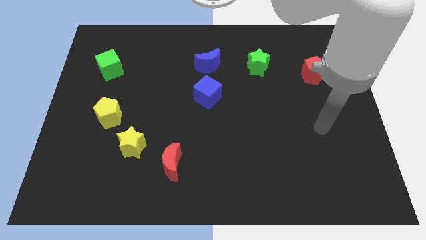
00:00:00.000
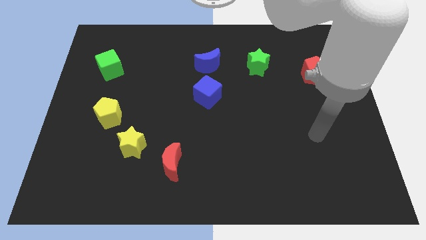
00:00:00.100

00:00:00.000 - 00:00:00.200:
separate the red moon from the yellow star

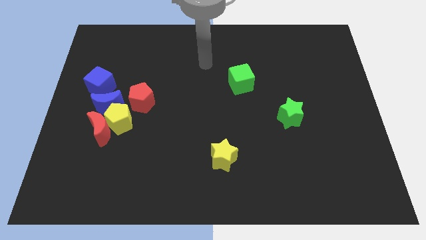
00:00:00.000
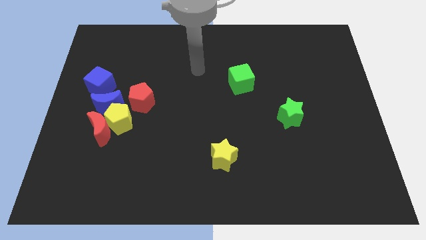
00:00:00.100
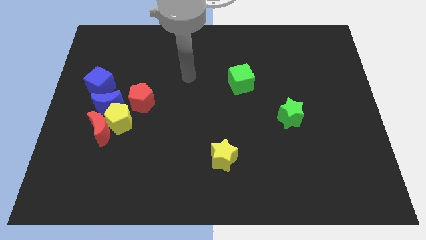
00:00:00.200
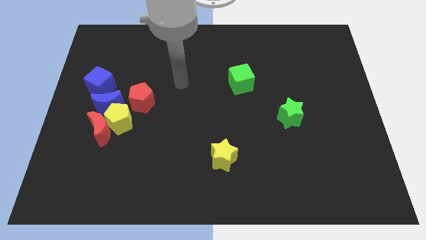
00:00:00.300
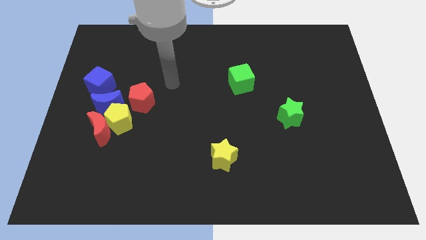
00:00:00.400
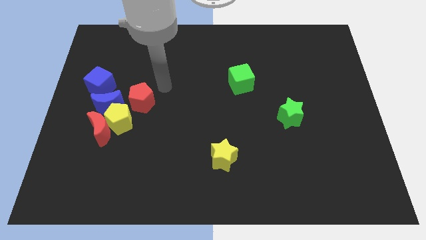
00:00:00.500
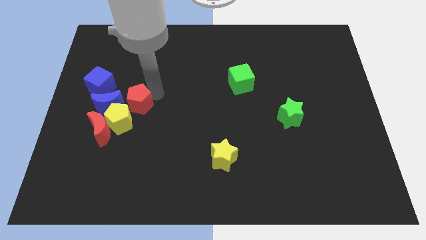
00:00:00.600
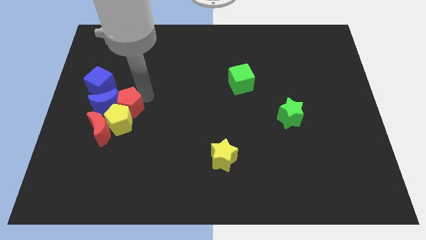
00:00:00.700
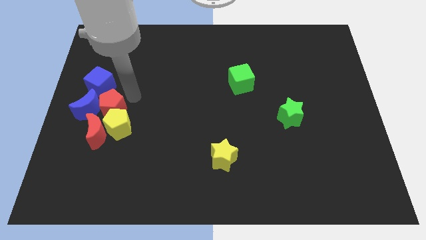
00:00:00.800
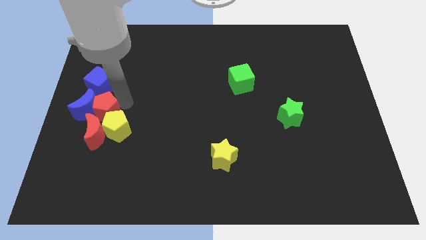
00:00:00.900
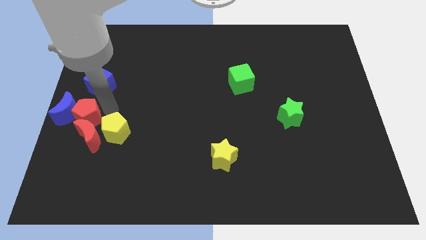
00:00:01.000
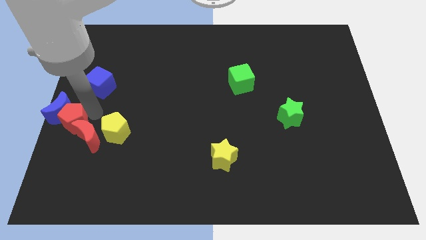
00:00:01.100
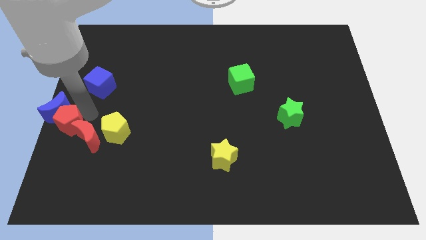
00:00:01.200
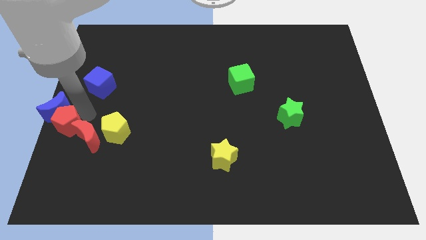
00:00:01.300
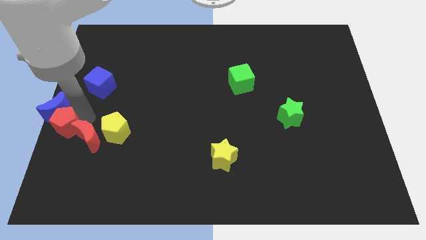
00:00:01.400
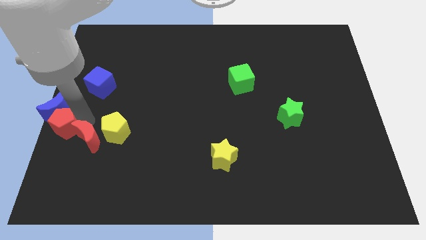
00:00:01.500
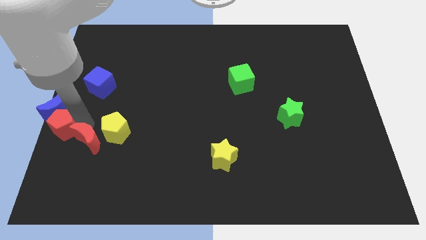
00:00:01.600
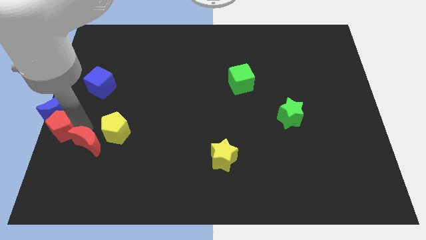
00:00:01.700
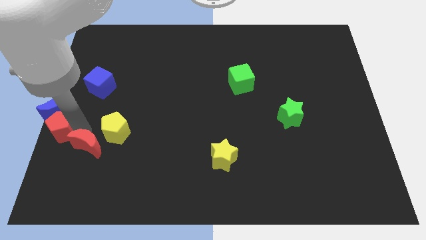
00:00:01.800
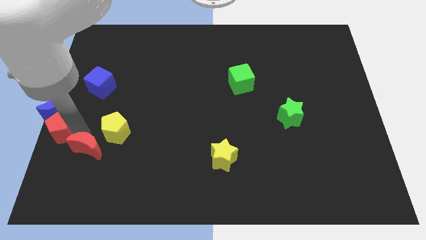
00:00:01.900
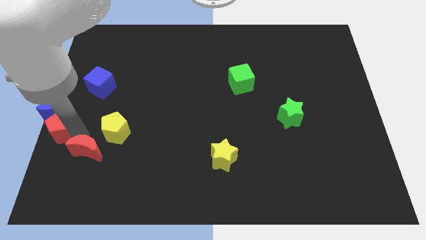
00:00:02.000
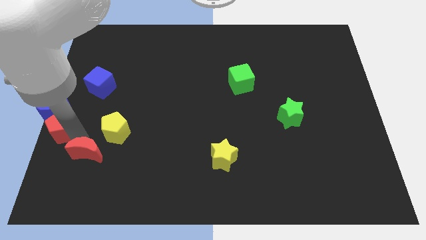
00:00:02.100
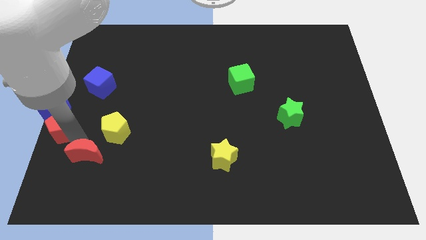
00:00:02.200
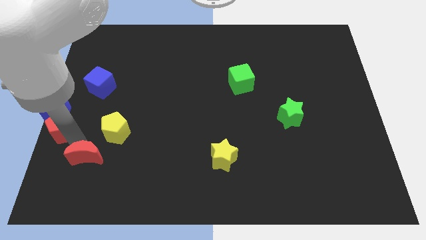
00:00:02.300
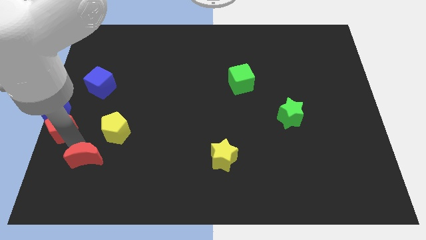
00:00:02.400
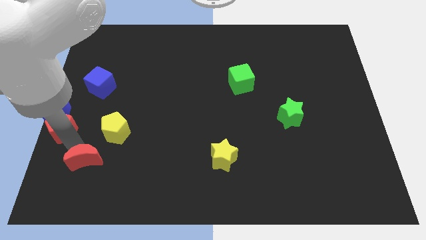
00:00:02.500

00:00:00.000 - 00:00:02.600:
move the red moon away from the yellow pentagon and blue moon

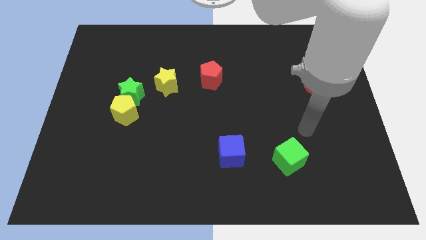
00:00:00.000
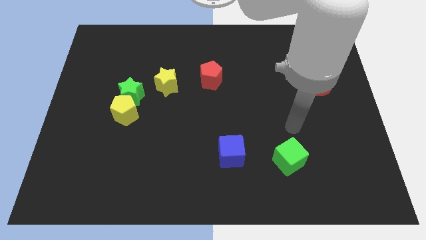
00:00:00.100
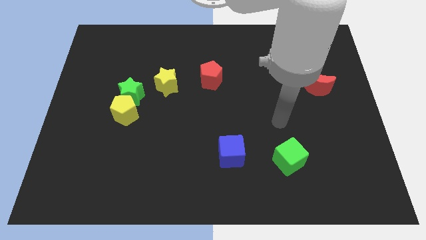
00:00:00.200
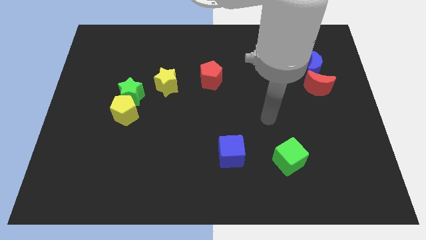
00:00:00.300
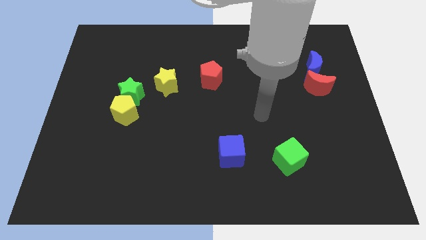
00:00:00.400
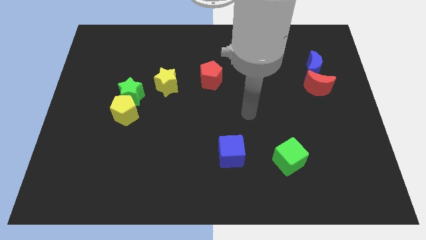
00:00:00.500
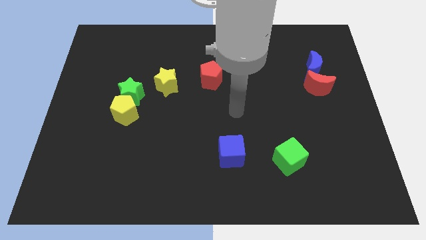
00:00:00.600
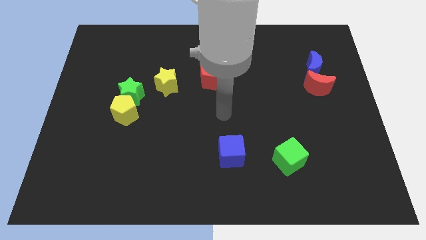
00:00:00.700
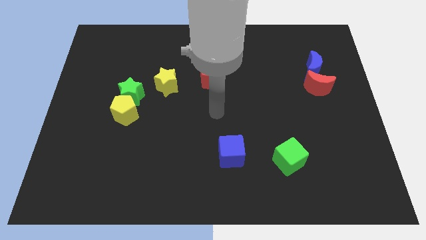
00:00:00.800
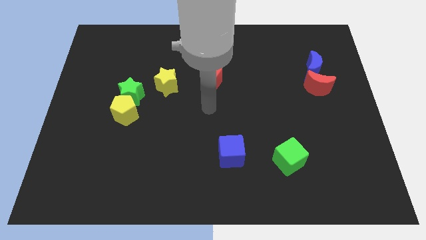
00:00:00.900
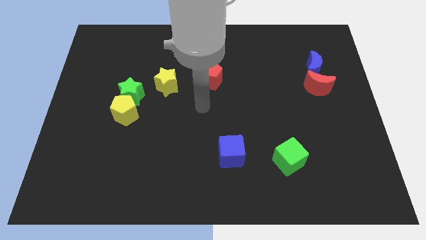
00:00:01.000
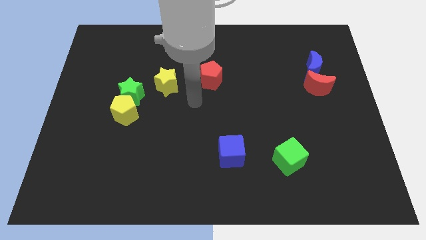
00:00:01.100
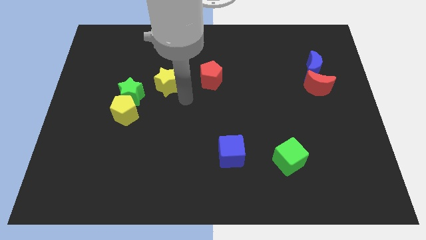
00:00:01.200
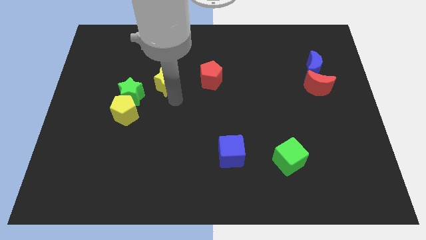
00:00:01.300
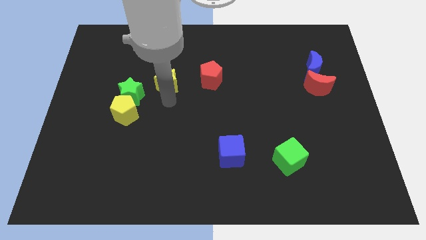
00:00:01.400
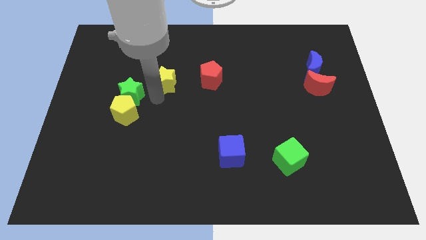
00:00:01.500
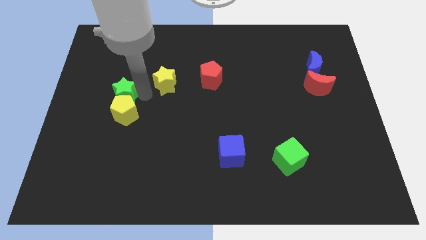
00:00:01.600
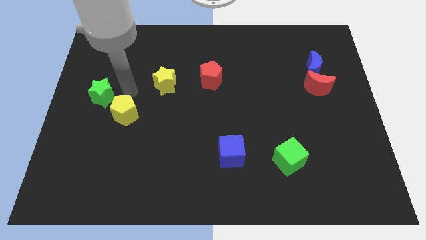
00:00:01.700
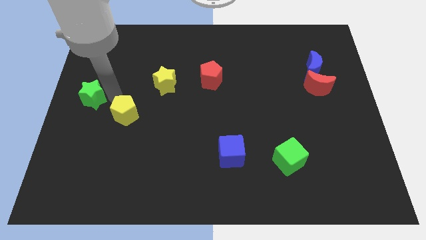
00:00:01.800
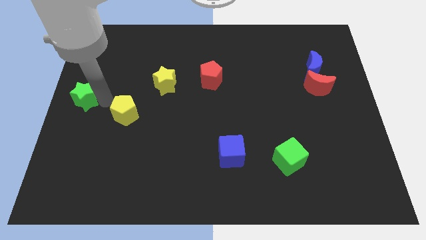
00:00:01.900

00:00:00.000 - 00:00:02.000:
pull the yellow pentagon apart from the green star

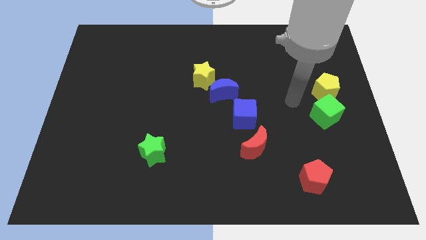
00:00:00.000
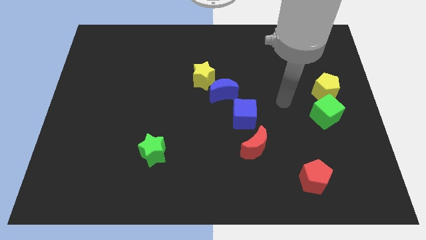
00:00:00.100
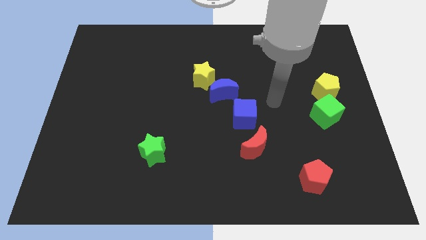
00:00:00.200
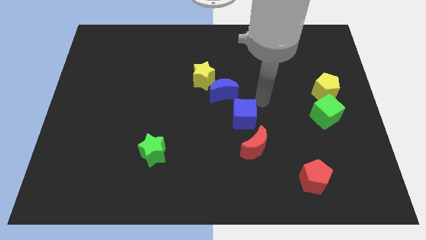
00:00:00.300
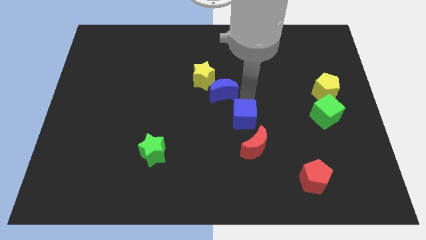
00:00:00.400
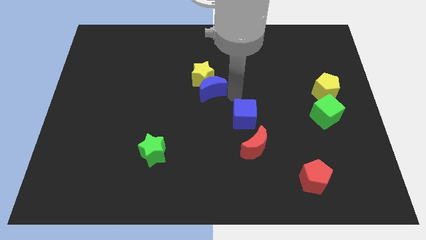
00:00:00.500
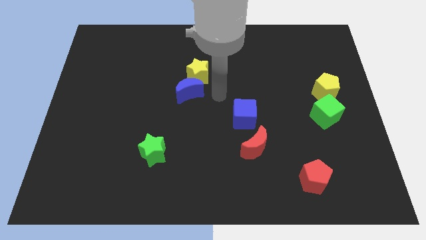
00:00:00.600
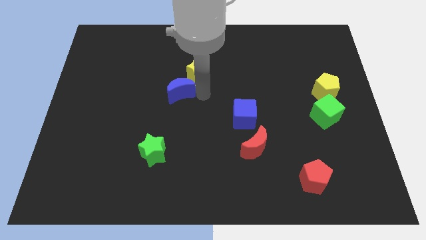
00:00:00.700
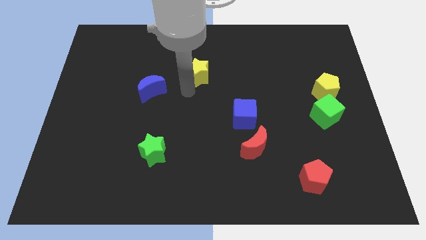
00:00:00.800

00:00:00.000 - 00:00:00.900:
move the yellow star away from the blue moon

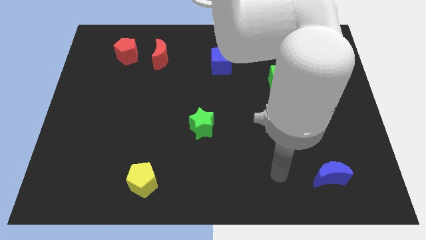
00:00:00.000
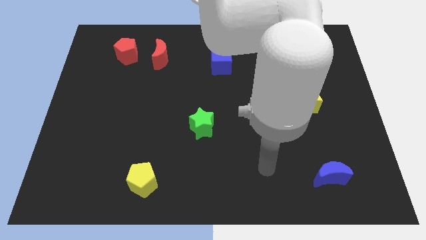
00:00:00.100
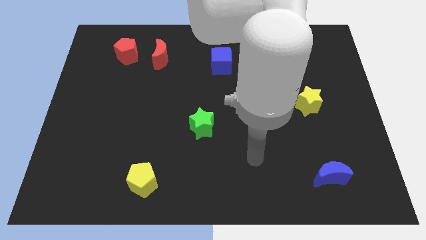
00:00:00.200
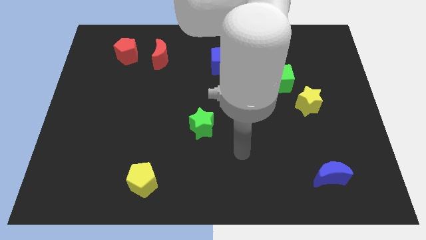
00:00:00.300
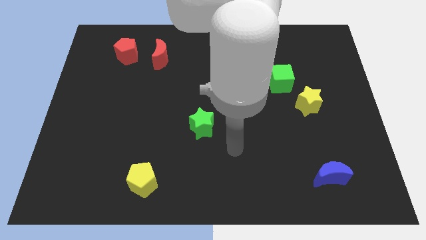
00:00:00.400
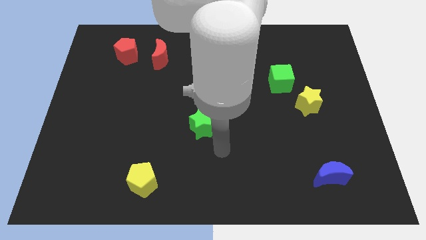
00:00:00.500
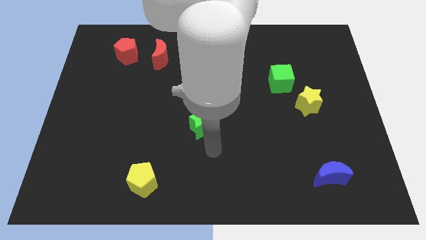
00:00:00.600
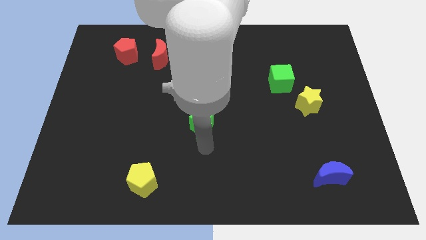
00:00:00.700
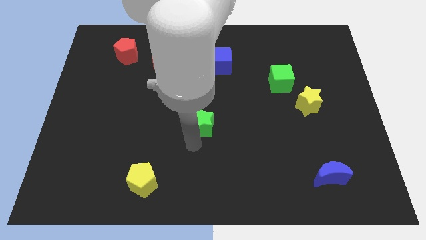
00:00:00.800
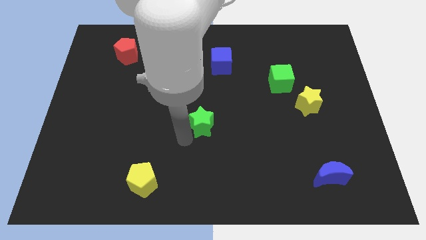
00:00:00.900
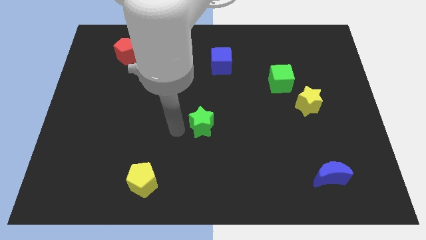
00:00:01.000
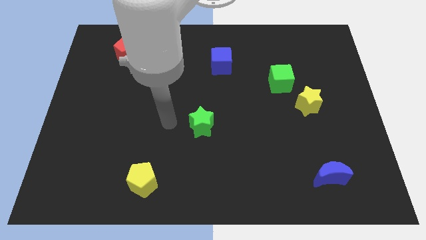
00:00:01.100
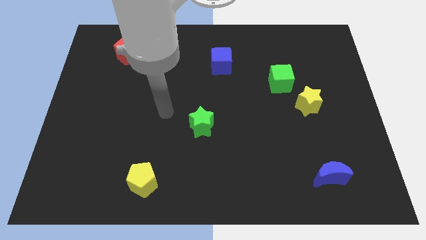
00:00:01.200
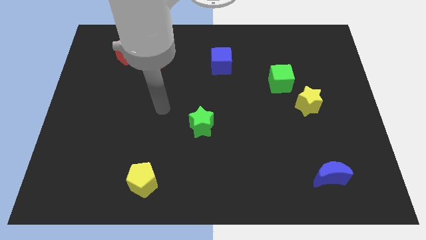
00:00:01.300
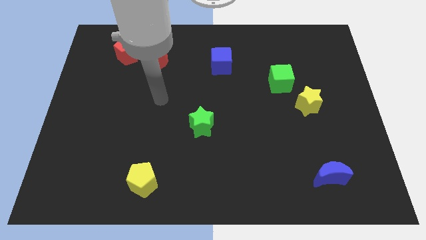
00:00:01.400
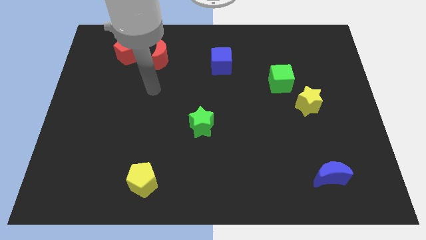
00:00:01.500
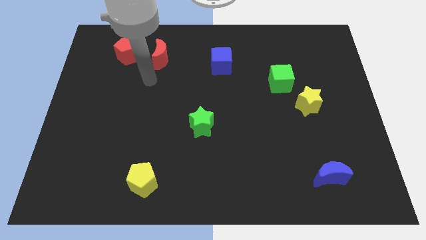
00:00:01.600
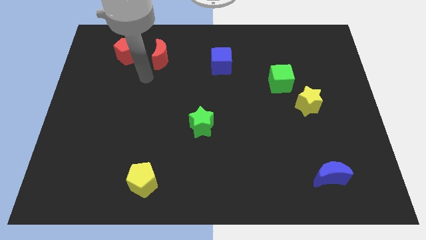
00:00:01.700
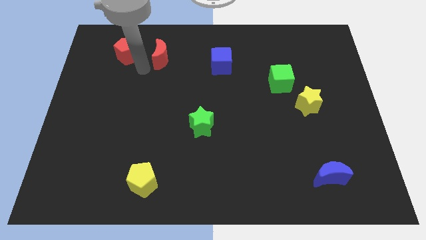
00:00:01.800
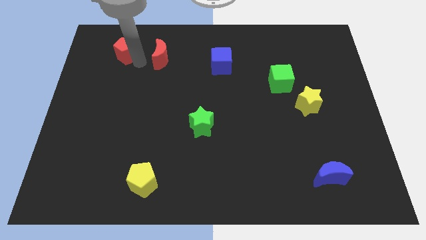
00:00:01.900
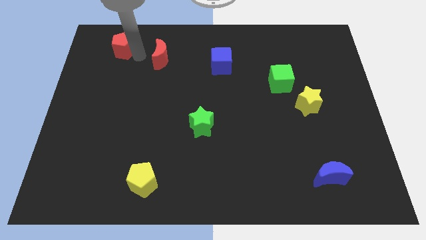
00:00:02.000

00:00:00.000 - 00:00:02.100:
move the red moon away from the red pentagon

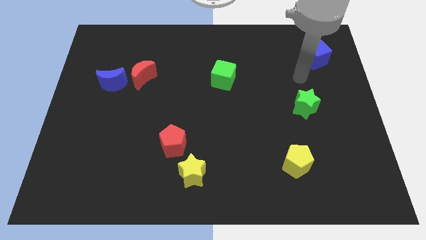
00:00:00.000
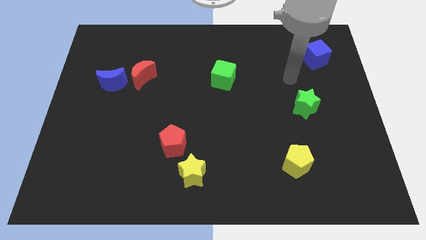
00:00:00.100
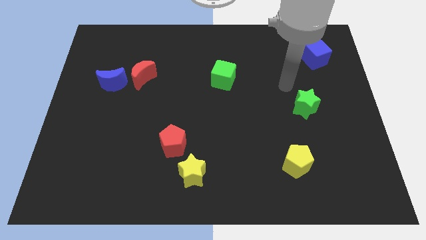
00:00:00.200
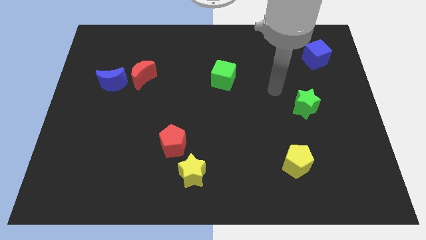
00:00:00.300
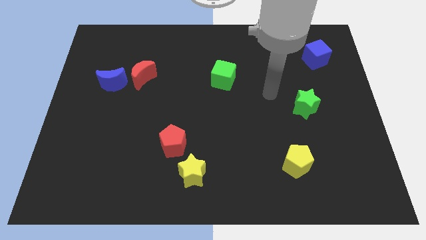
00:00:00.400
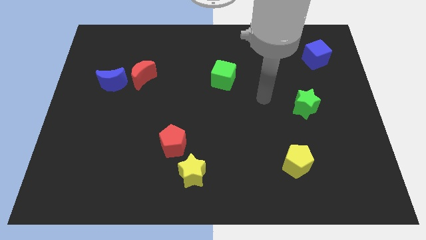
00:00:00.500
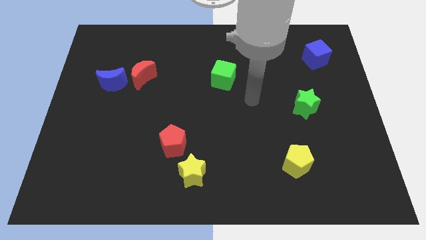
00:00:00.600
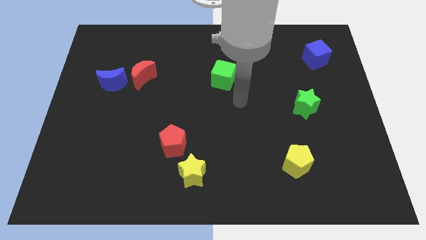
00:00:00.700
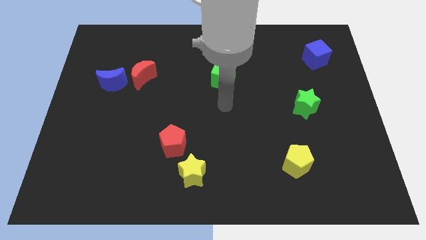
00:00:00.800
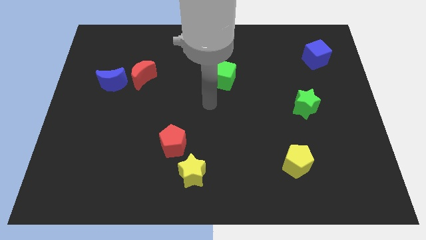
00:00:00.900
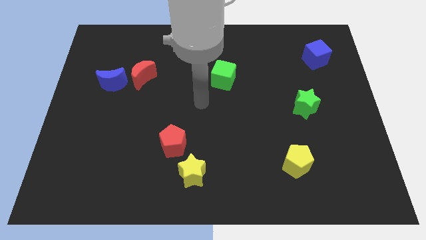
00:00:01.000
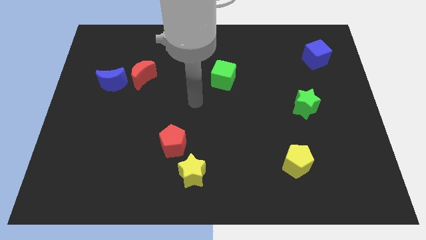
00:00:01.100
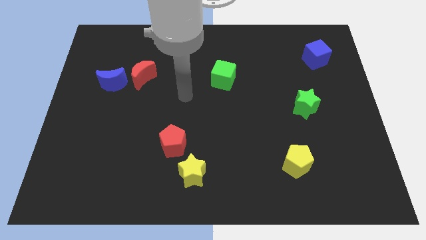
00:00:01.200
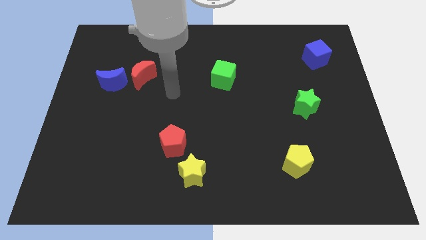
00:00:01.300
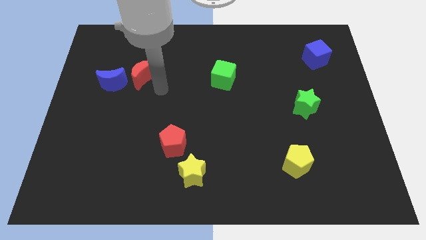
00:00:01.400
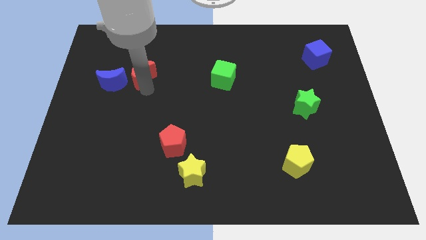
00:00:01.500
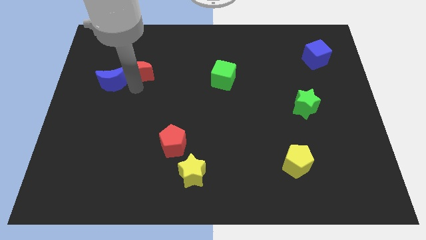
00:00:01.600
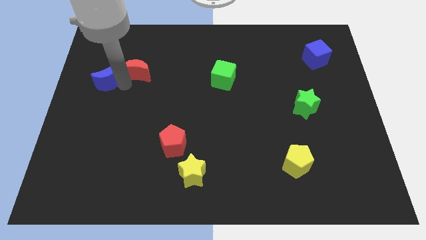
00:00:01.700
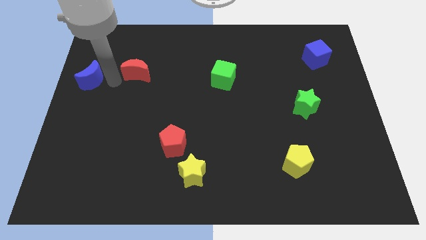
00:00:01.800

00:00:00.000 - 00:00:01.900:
separate the red moon from the blue moon
